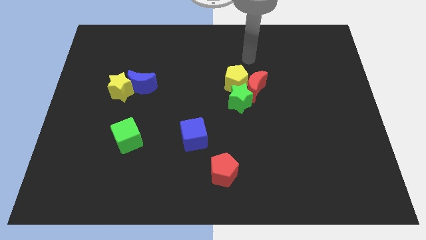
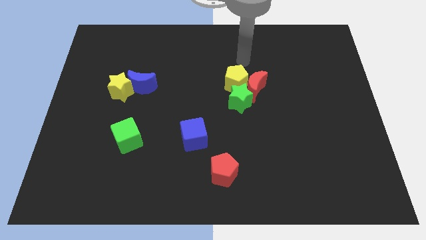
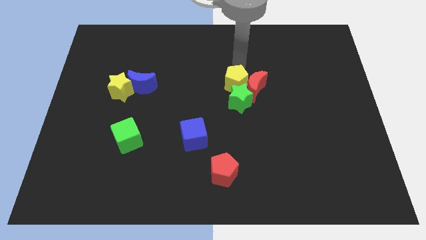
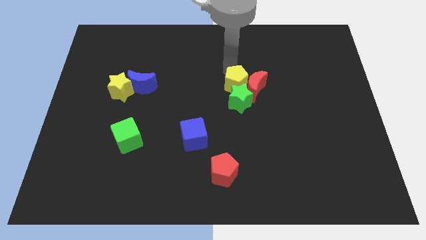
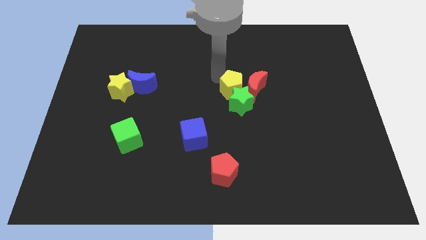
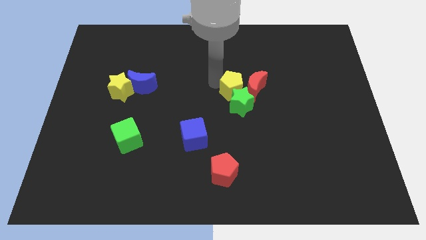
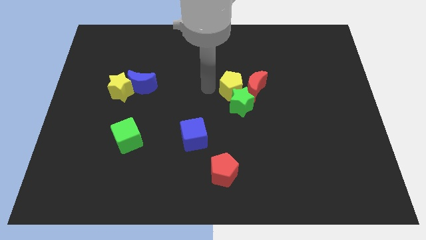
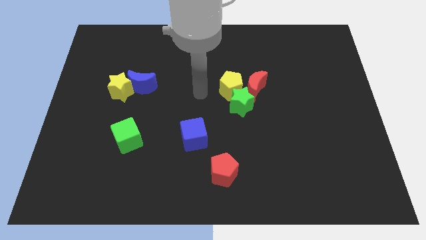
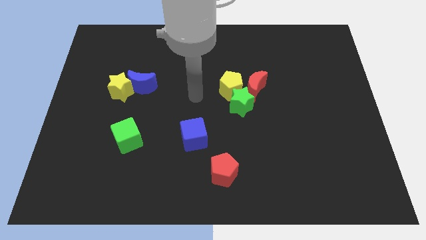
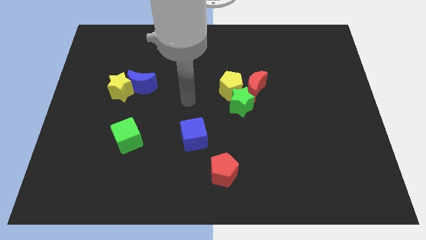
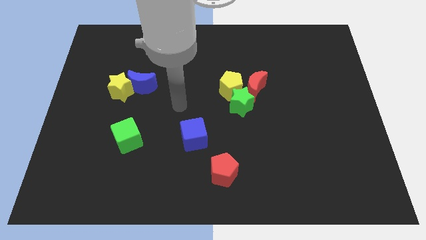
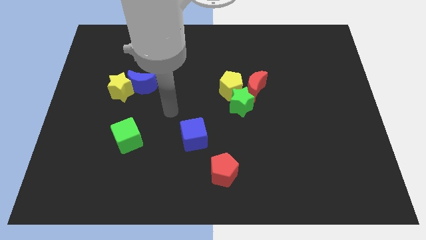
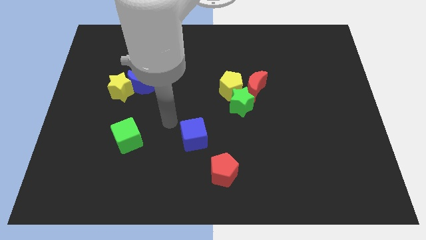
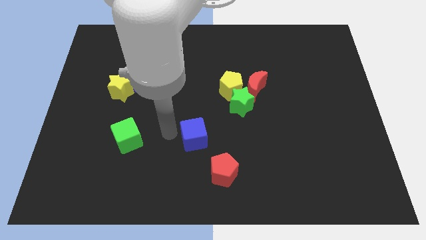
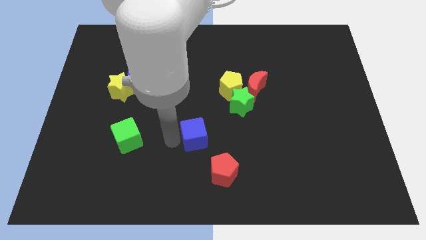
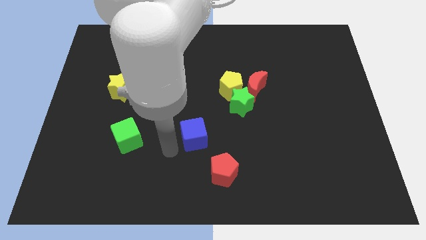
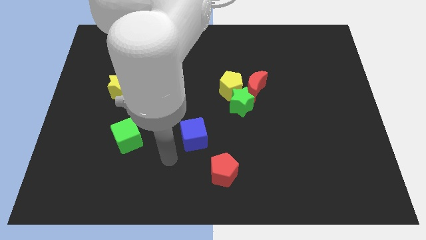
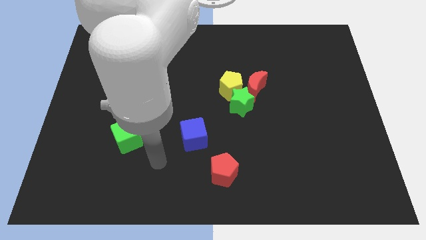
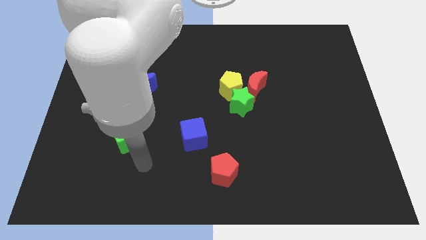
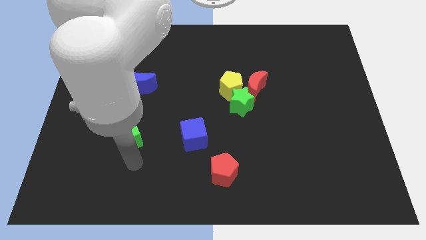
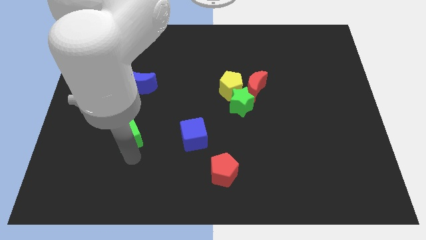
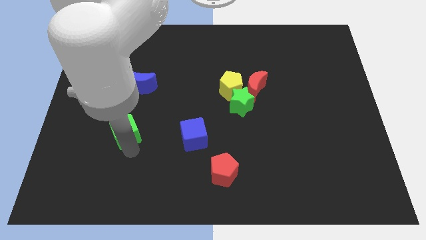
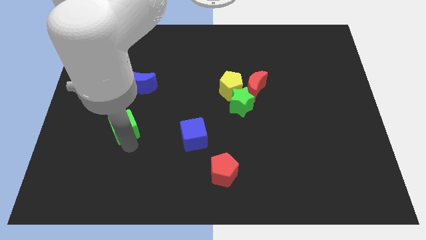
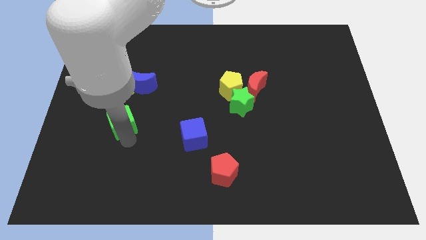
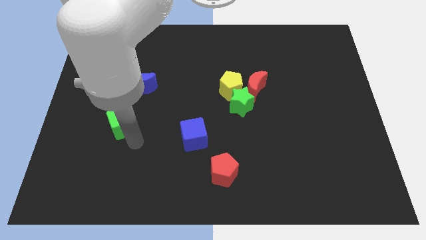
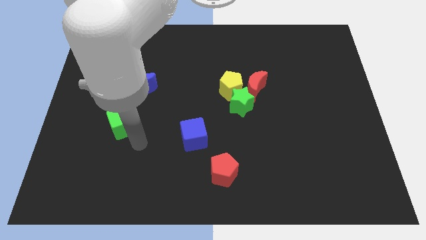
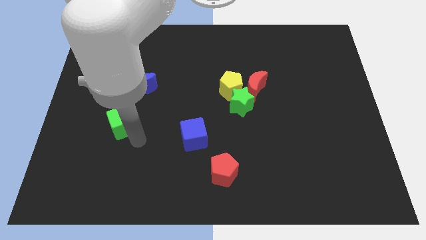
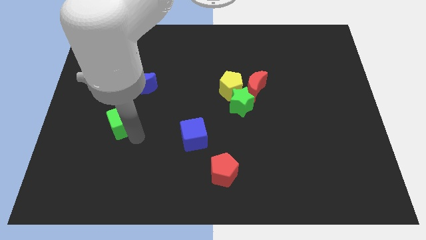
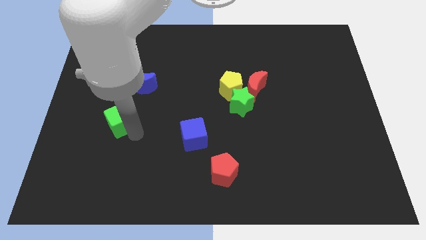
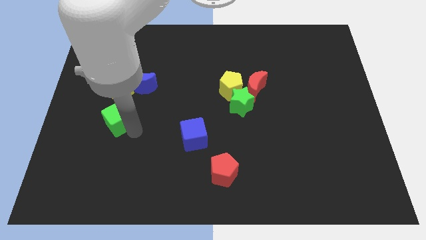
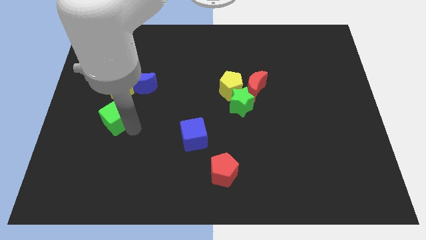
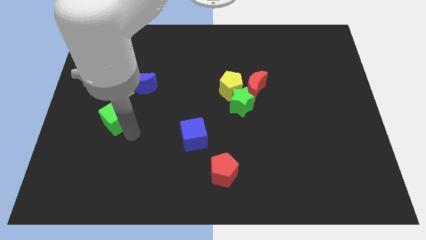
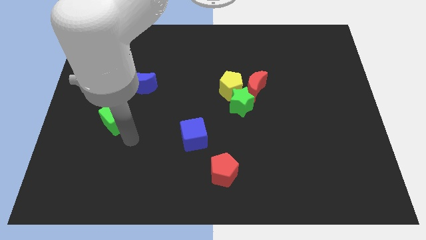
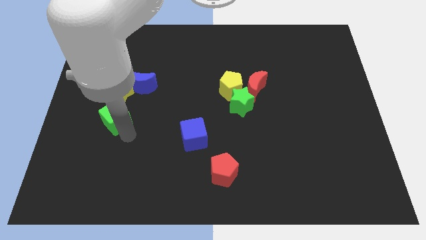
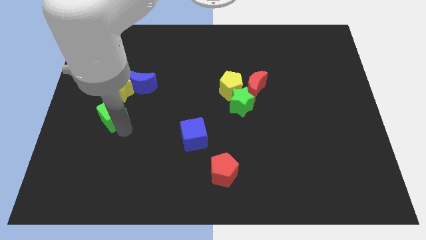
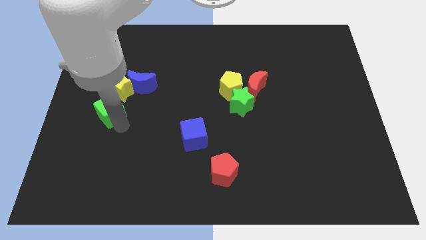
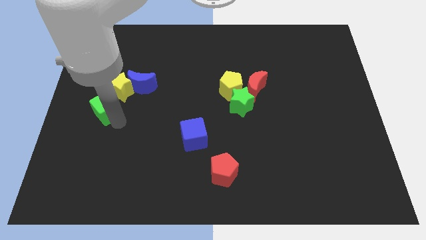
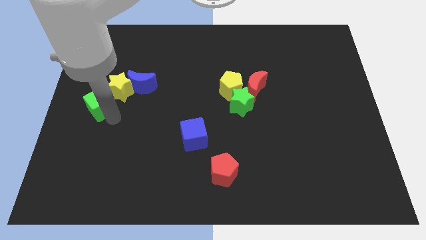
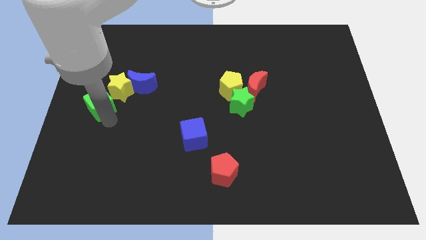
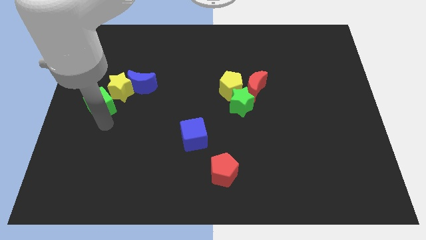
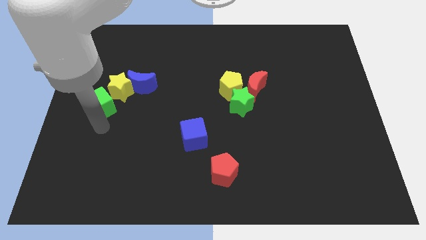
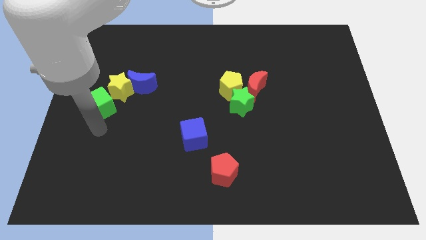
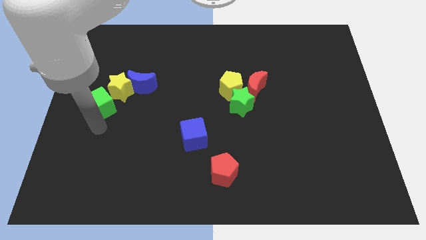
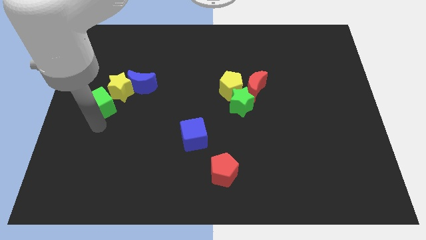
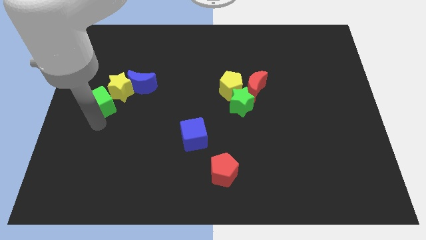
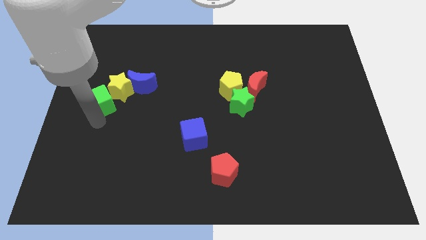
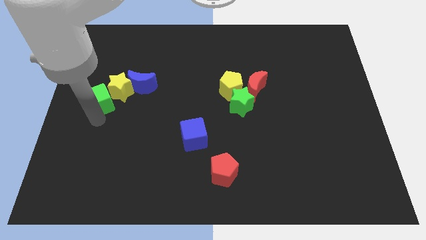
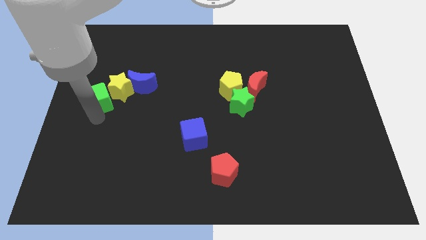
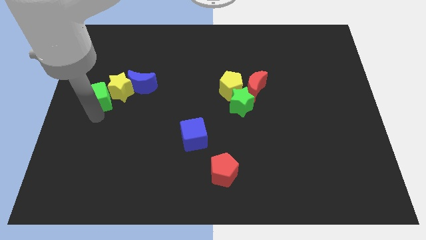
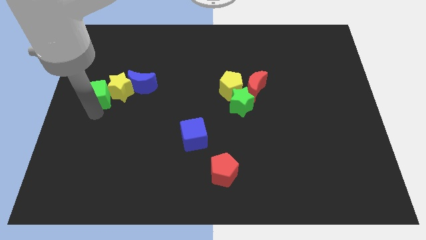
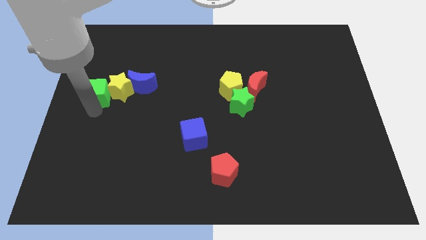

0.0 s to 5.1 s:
push the green cube diagonally up and to the left of the yellow star

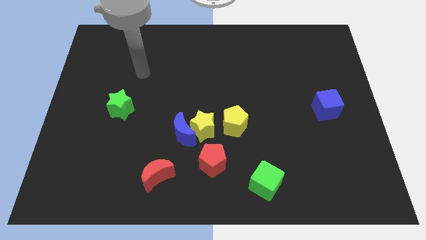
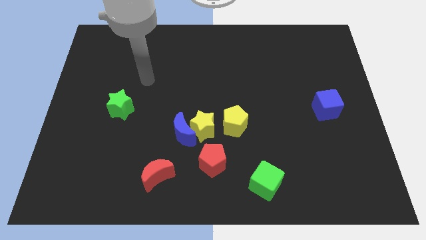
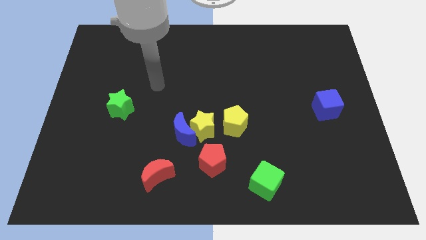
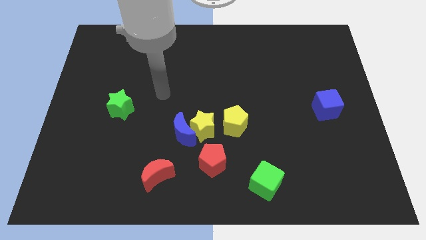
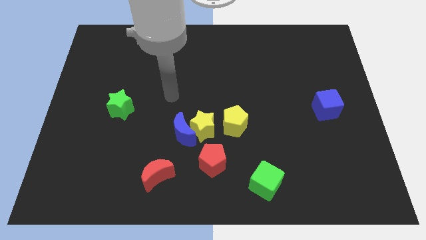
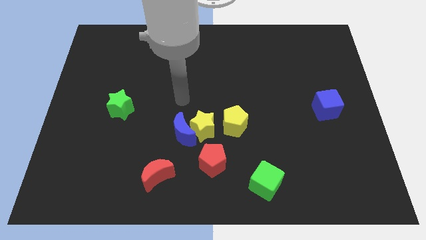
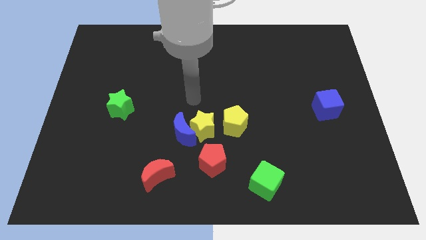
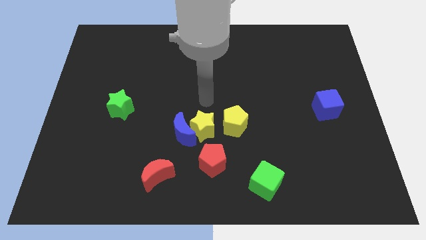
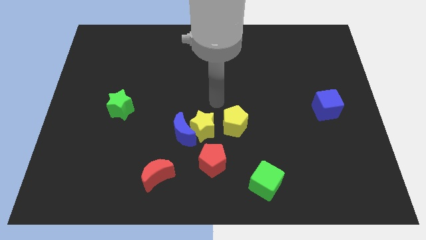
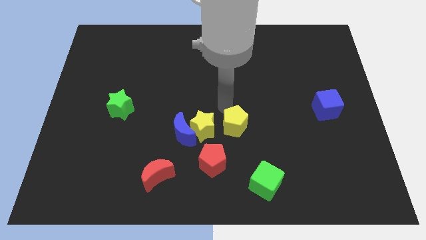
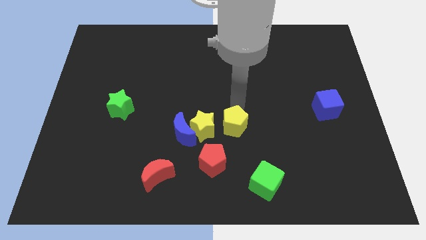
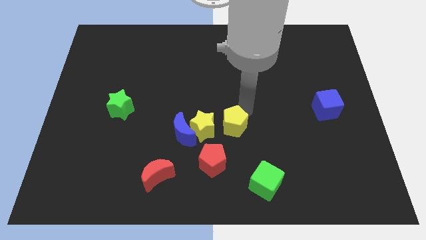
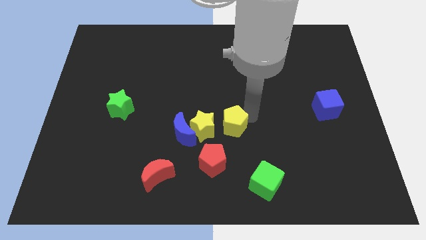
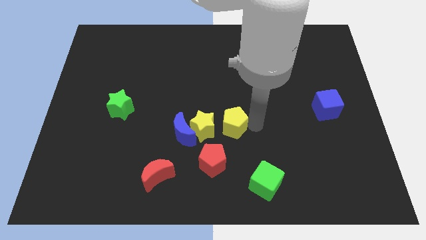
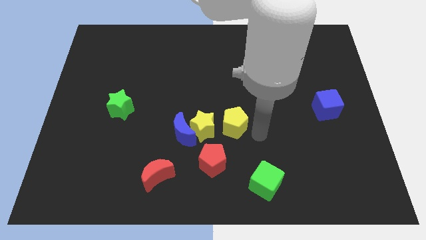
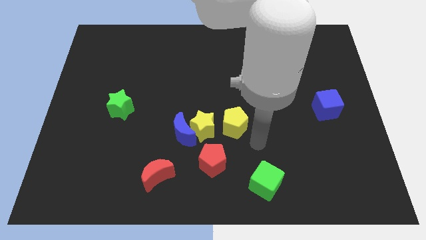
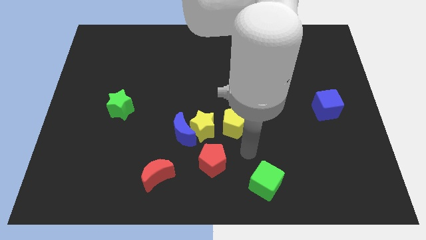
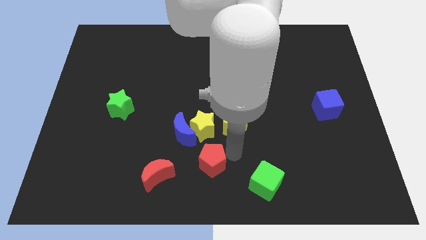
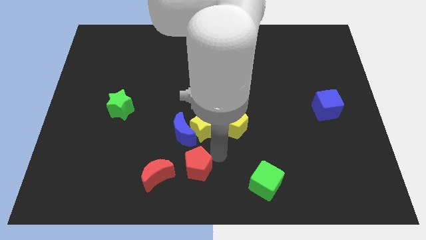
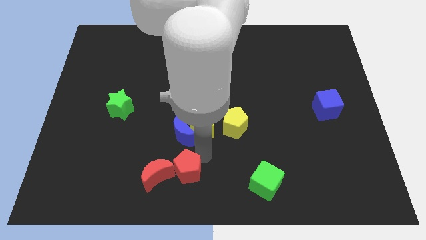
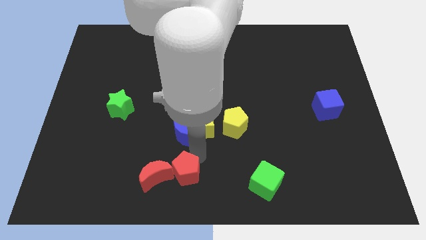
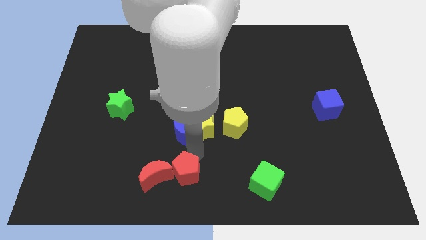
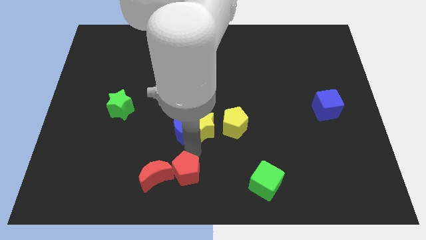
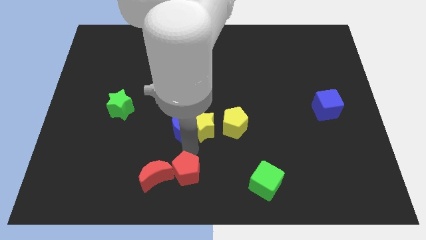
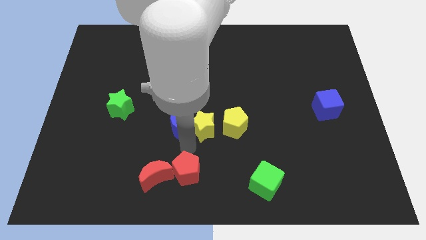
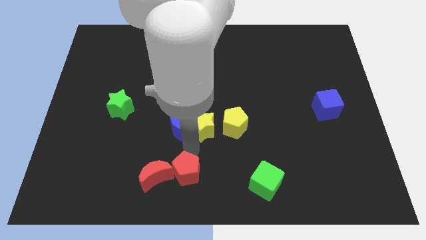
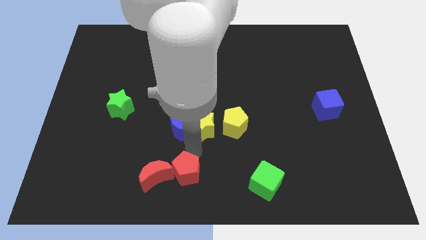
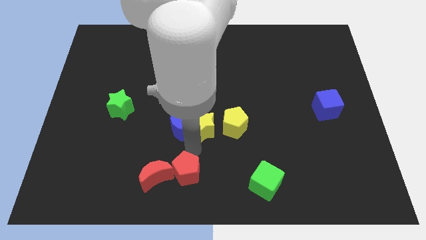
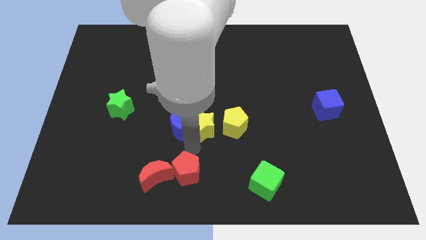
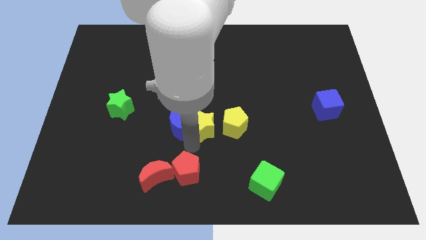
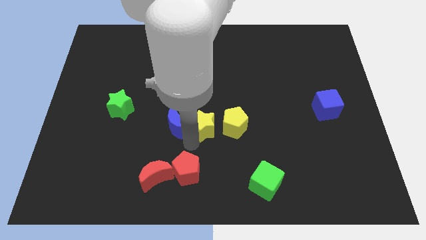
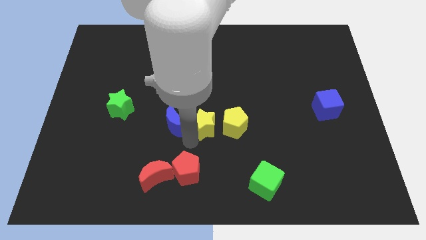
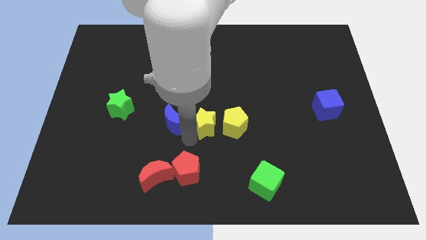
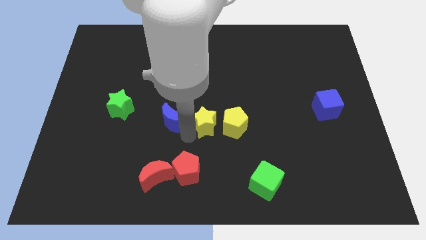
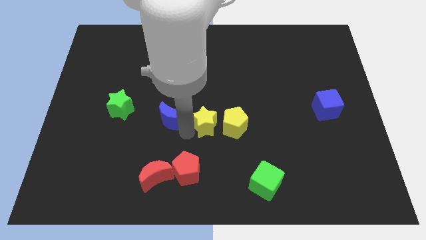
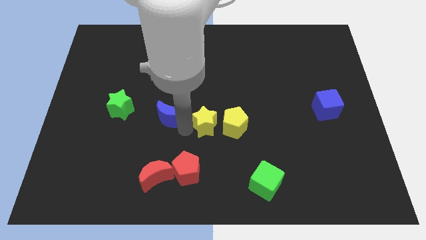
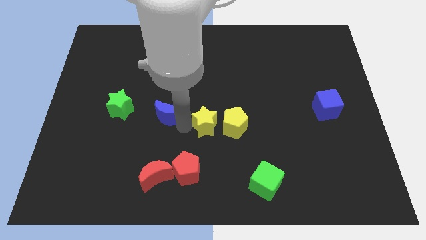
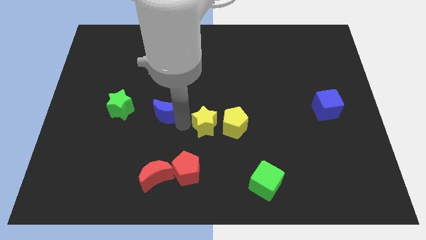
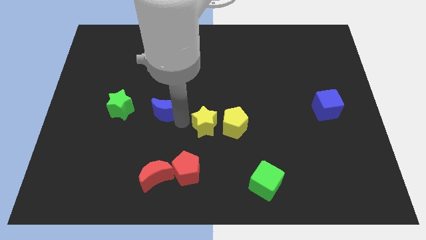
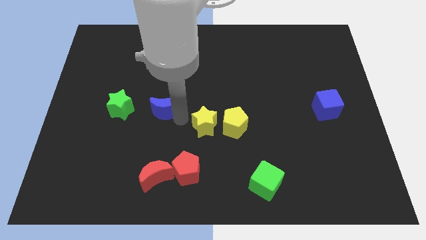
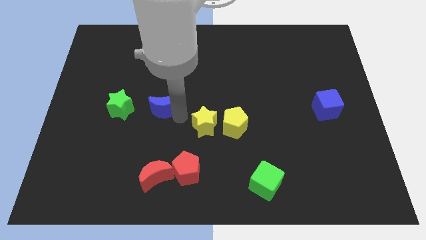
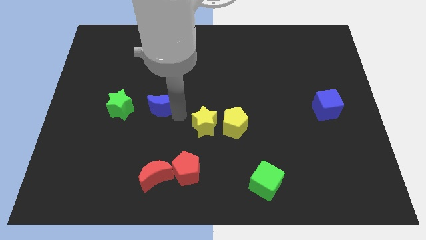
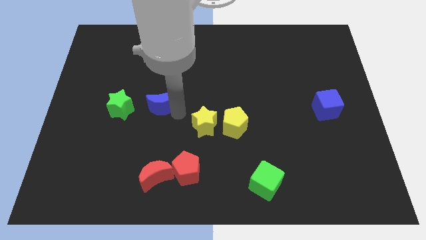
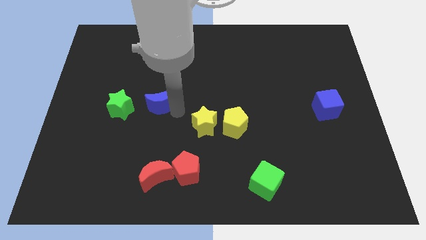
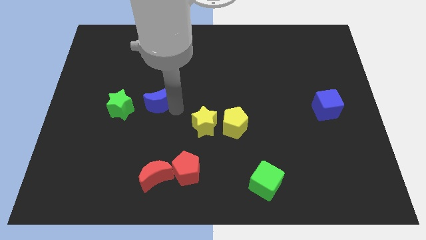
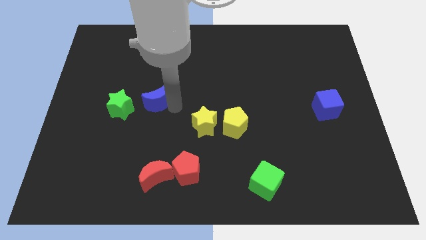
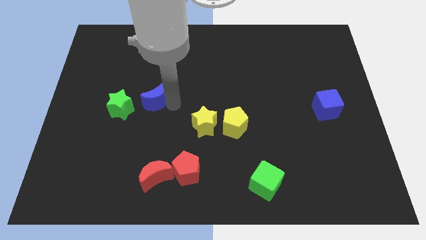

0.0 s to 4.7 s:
push the blue moon to the top right side of the green star
